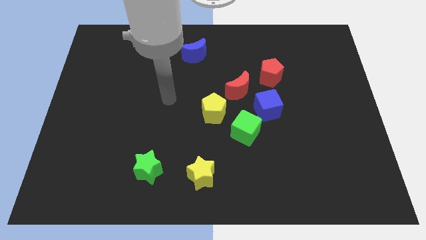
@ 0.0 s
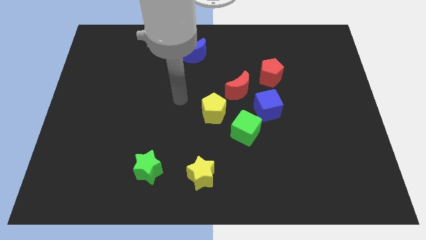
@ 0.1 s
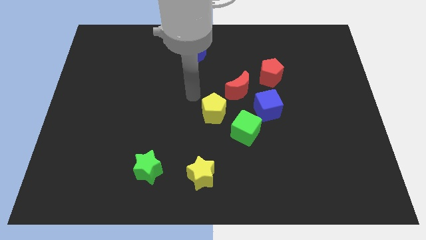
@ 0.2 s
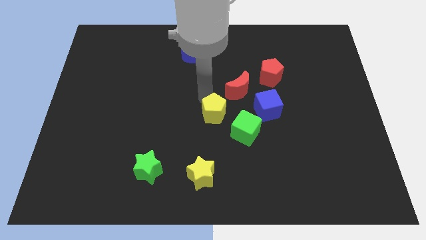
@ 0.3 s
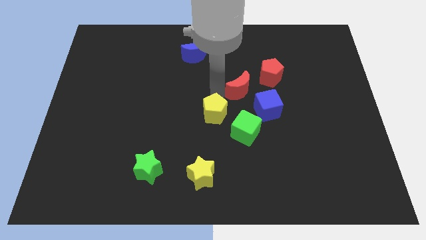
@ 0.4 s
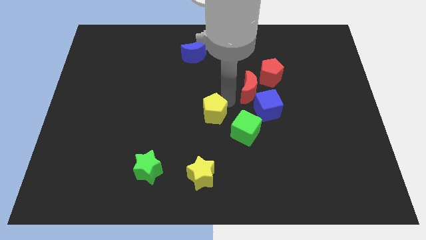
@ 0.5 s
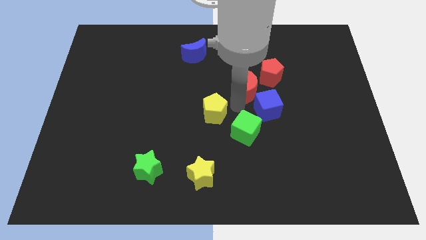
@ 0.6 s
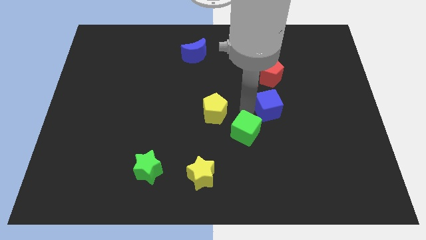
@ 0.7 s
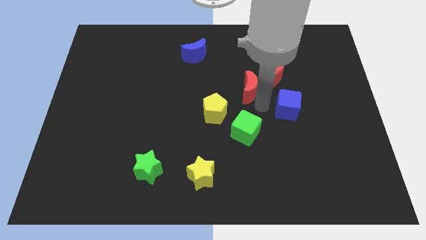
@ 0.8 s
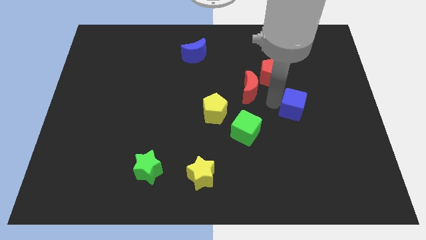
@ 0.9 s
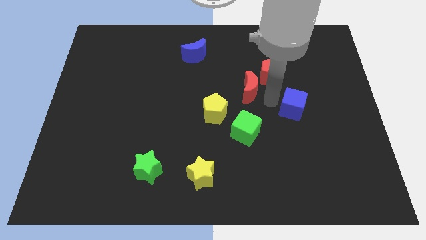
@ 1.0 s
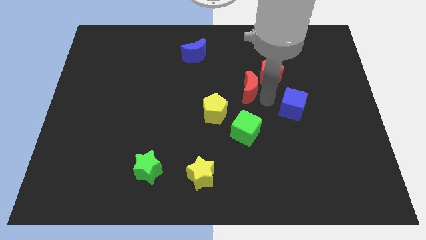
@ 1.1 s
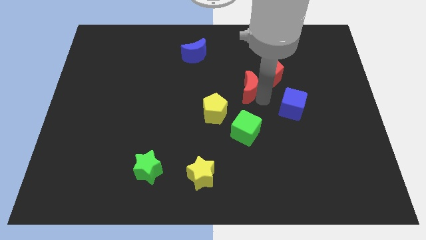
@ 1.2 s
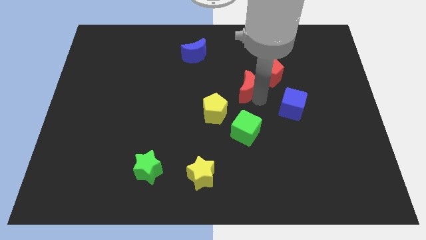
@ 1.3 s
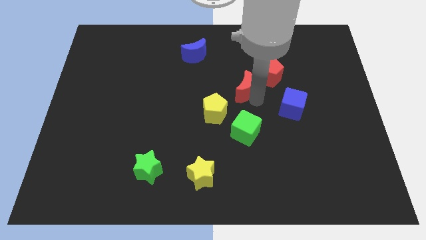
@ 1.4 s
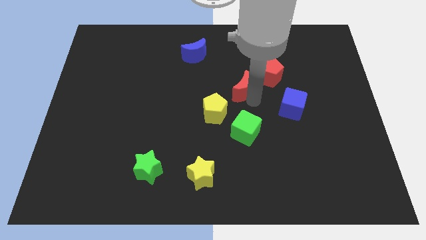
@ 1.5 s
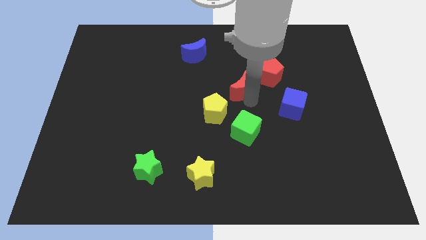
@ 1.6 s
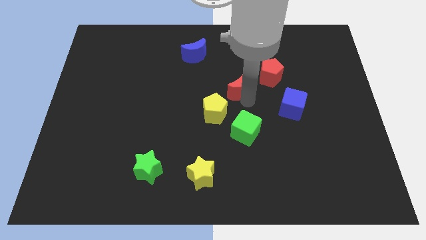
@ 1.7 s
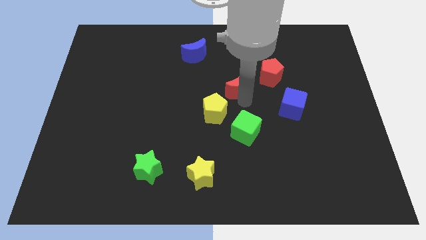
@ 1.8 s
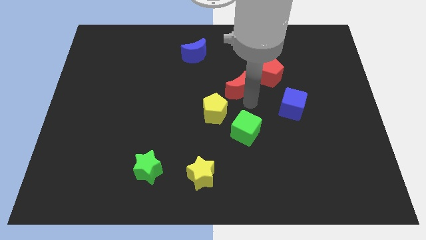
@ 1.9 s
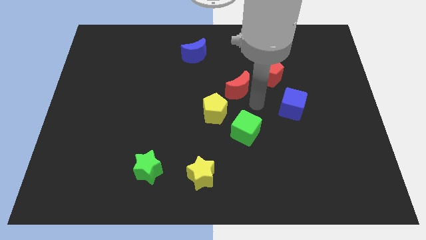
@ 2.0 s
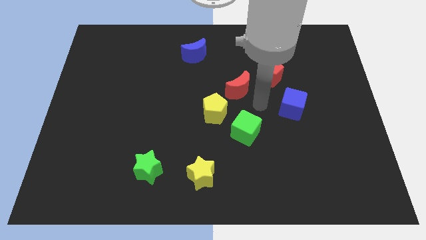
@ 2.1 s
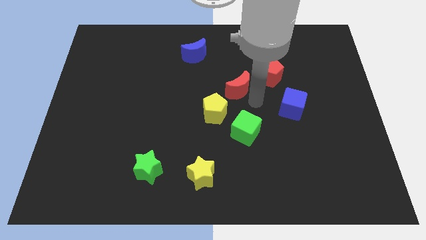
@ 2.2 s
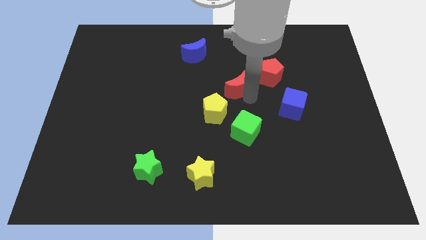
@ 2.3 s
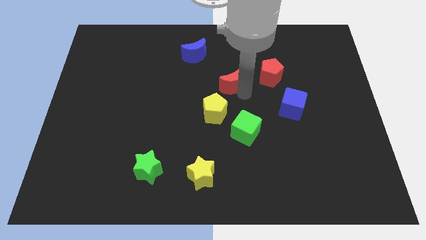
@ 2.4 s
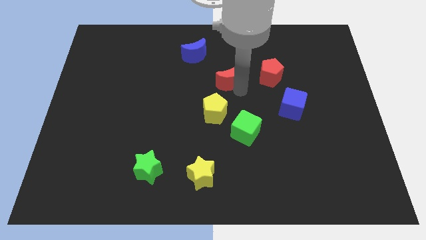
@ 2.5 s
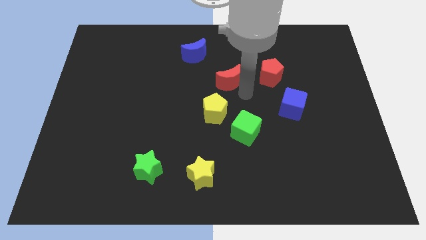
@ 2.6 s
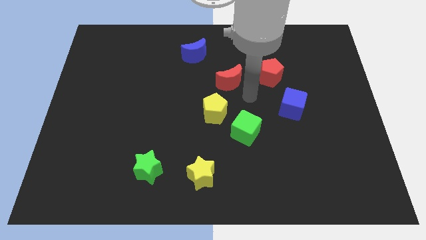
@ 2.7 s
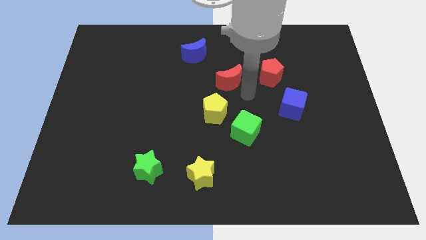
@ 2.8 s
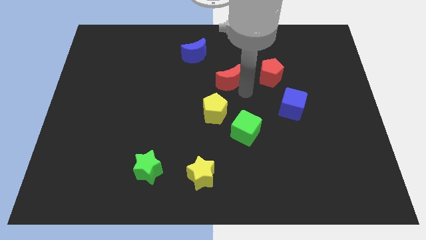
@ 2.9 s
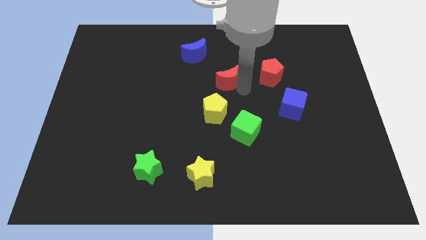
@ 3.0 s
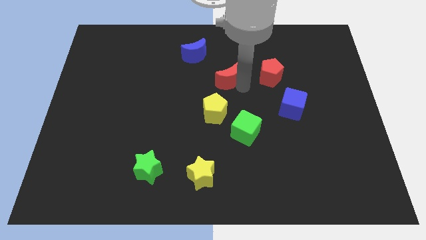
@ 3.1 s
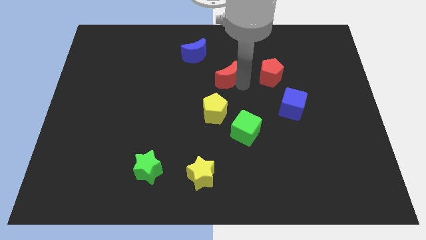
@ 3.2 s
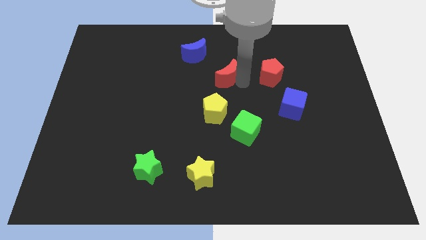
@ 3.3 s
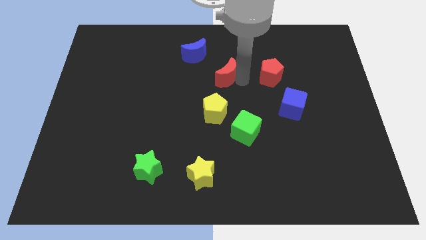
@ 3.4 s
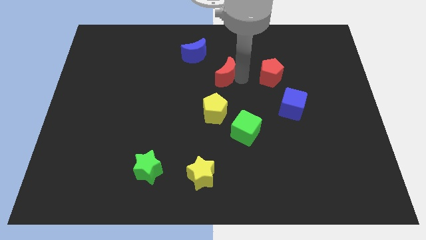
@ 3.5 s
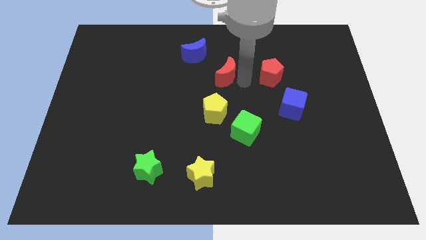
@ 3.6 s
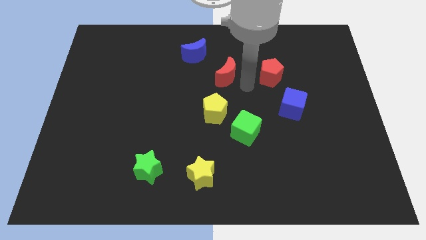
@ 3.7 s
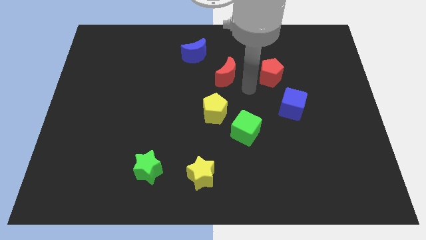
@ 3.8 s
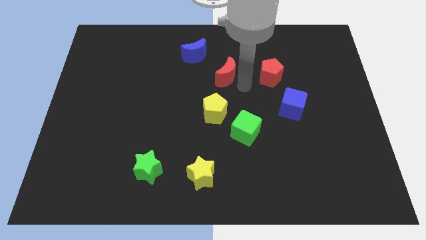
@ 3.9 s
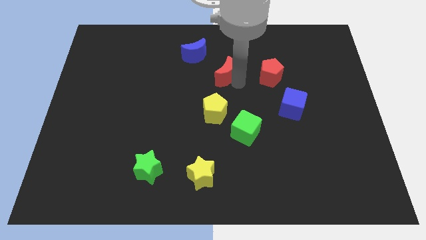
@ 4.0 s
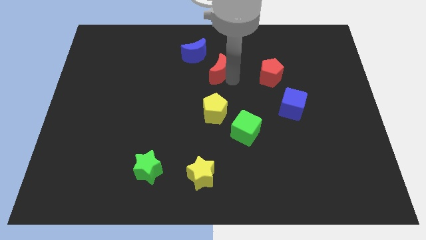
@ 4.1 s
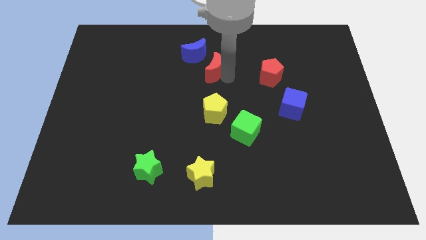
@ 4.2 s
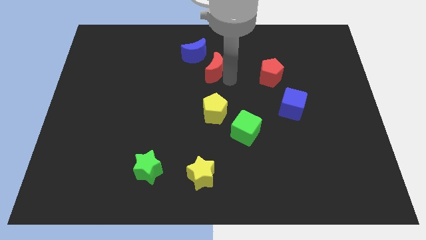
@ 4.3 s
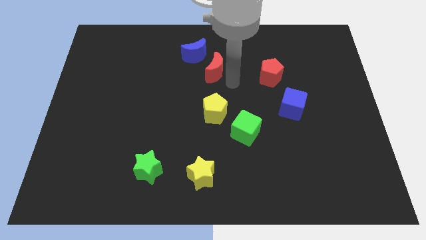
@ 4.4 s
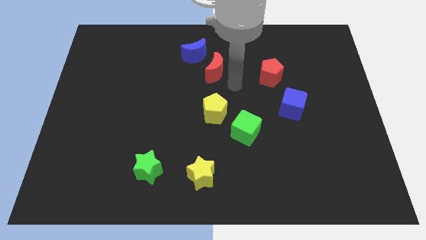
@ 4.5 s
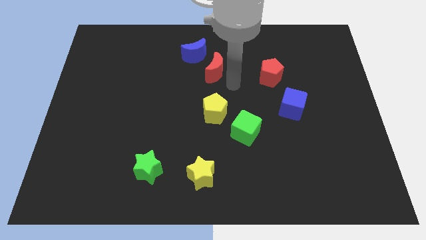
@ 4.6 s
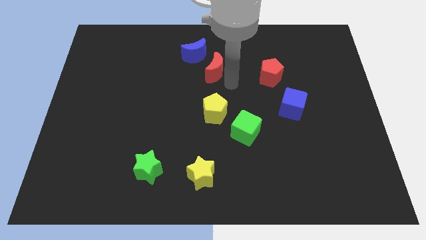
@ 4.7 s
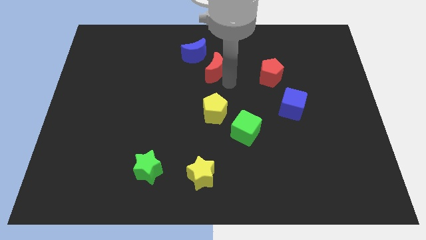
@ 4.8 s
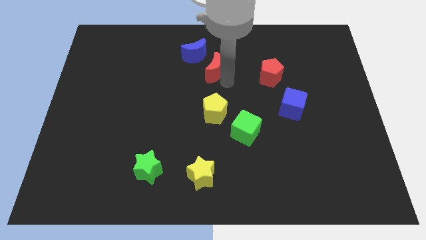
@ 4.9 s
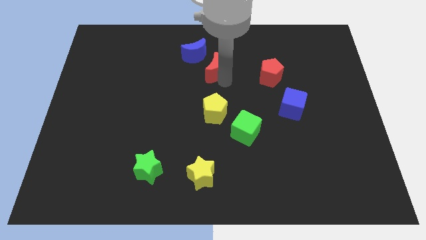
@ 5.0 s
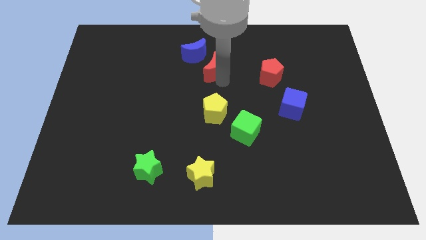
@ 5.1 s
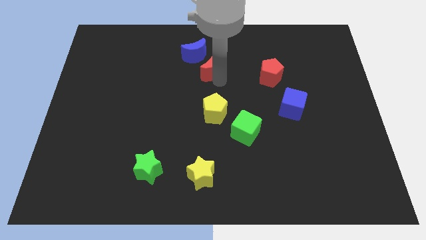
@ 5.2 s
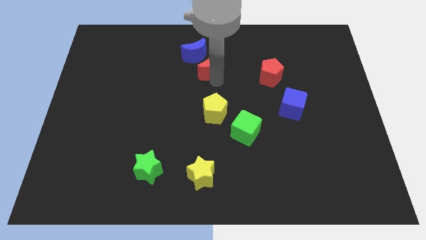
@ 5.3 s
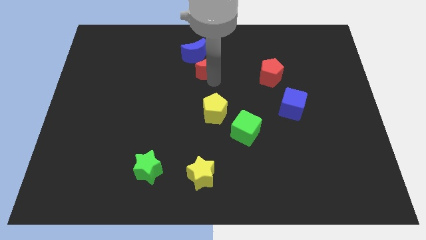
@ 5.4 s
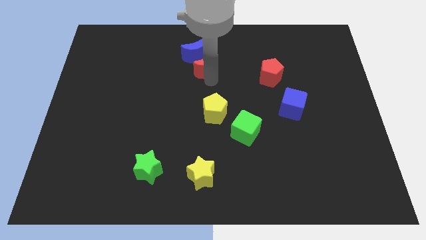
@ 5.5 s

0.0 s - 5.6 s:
push the red moon close to the blue moon

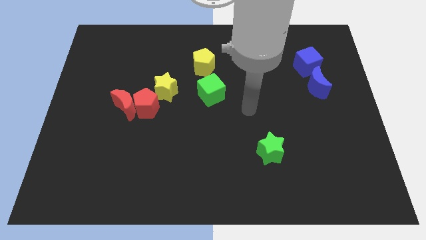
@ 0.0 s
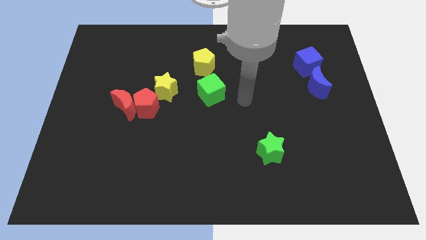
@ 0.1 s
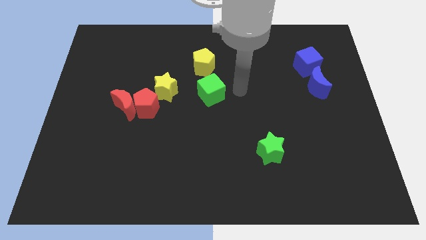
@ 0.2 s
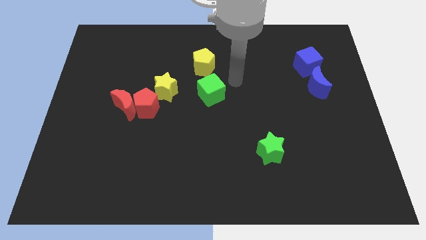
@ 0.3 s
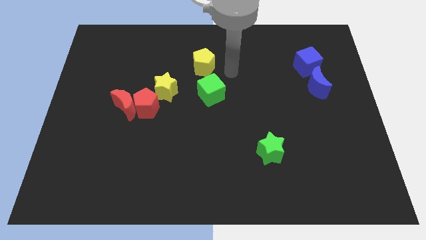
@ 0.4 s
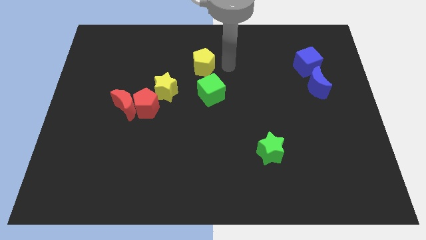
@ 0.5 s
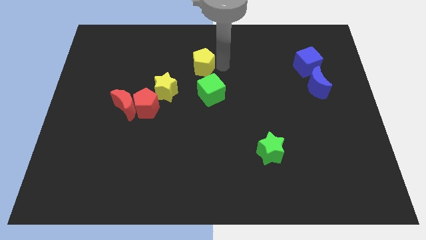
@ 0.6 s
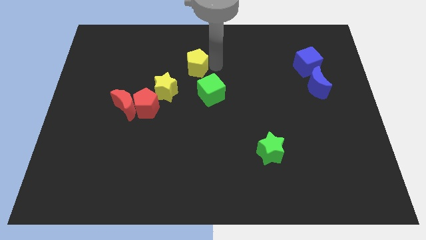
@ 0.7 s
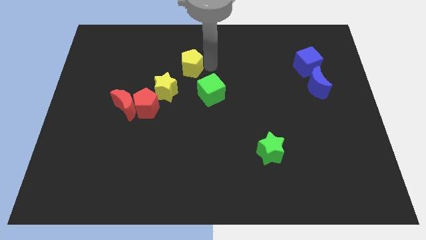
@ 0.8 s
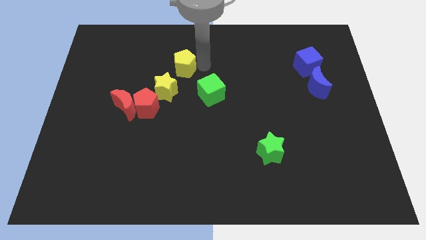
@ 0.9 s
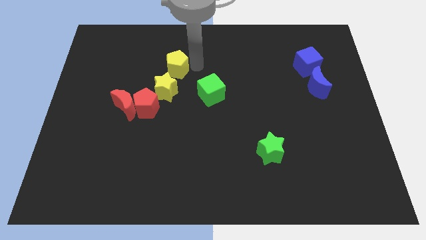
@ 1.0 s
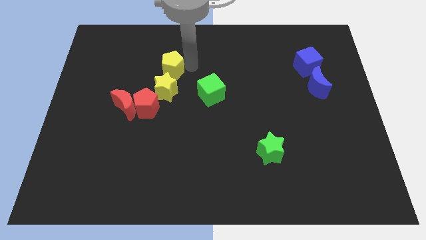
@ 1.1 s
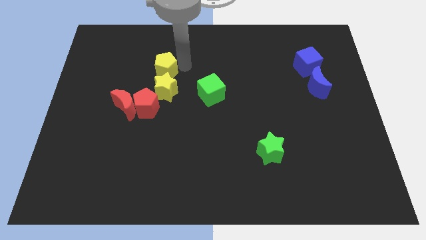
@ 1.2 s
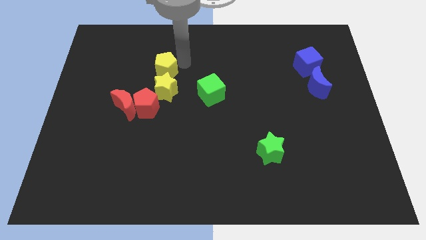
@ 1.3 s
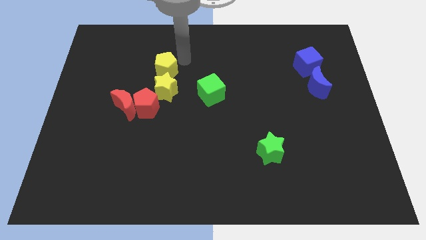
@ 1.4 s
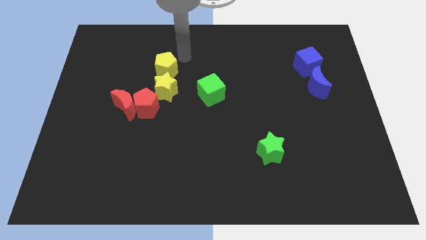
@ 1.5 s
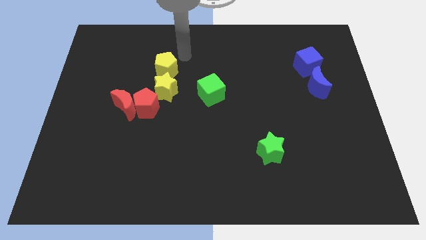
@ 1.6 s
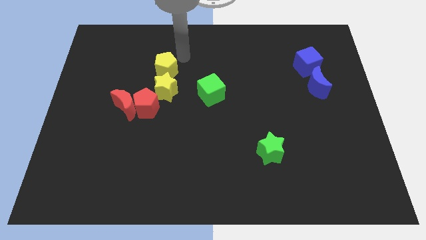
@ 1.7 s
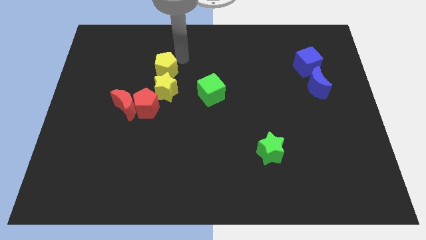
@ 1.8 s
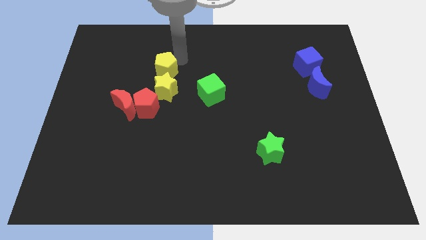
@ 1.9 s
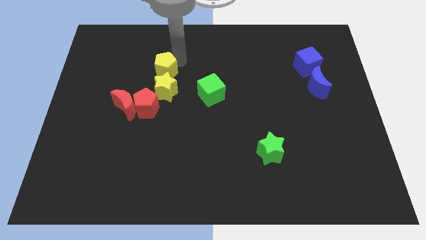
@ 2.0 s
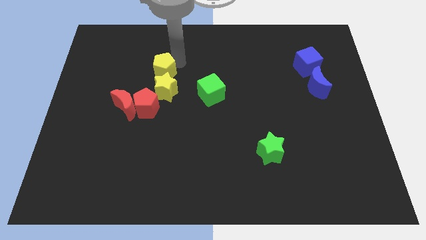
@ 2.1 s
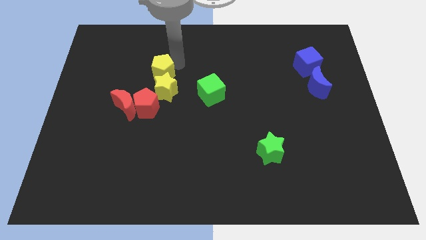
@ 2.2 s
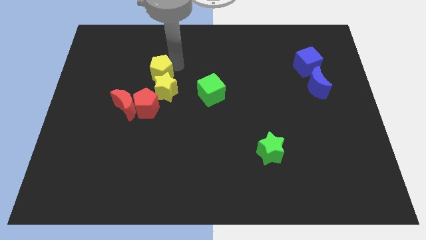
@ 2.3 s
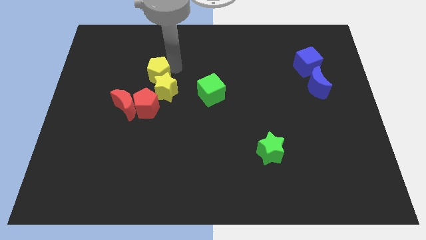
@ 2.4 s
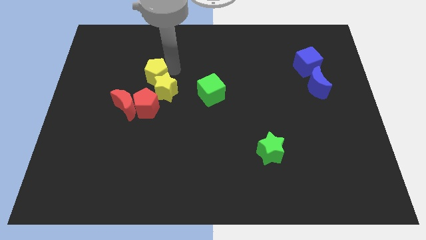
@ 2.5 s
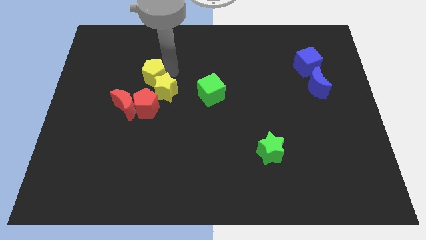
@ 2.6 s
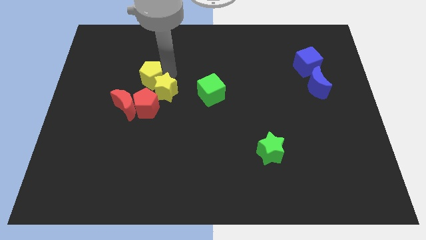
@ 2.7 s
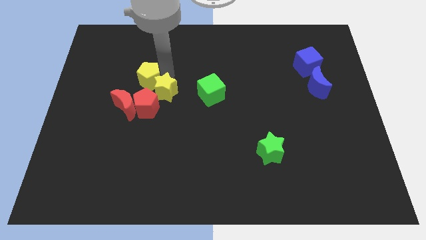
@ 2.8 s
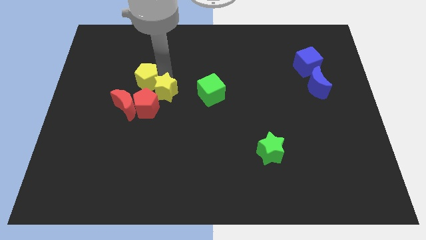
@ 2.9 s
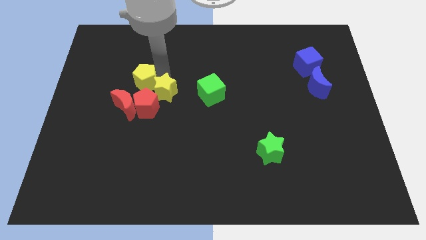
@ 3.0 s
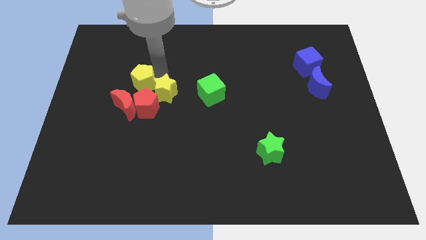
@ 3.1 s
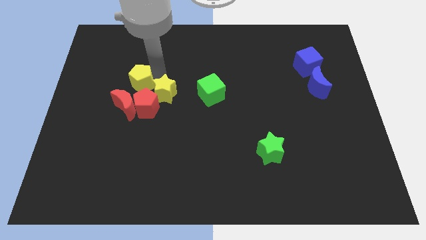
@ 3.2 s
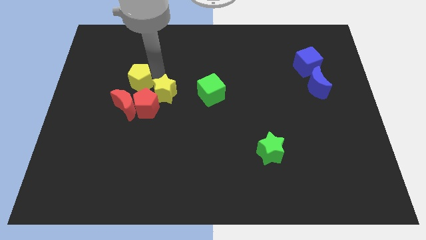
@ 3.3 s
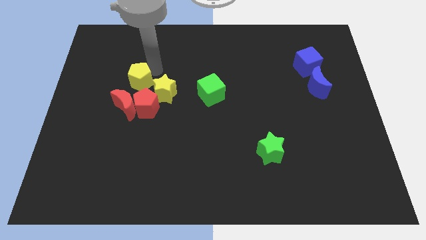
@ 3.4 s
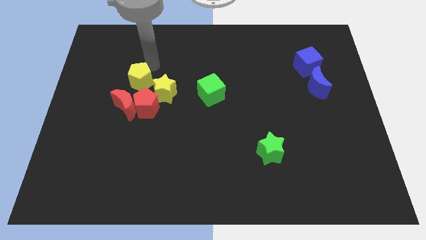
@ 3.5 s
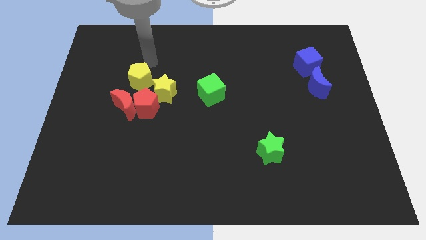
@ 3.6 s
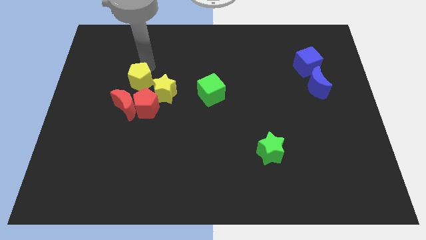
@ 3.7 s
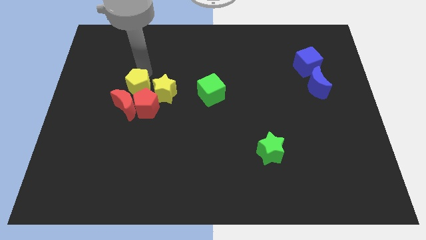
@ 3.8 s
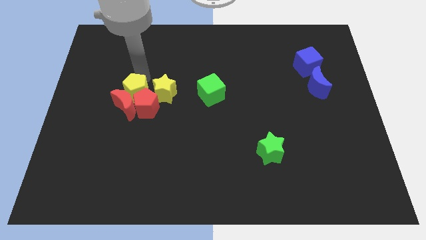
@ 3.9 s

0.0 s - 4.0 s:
push the yellow pentagon to the red moon
